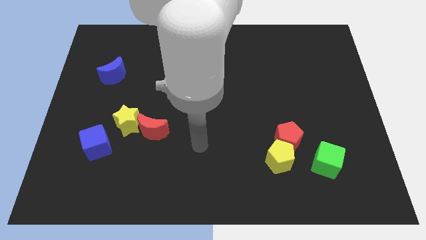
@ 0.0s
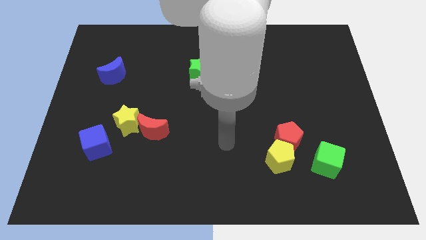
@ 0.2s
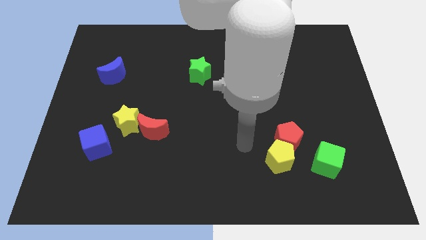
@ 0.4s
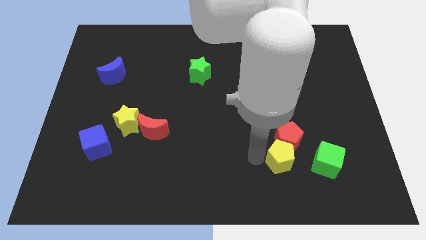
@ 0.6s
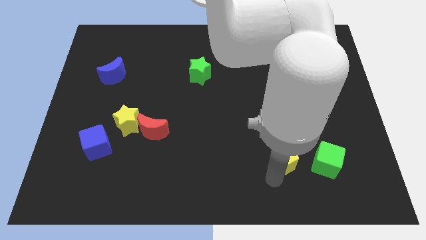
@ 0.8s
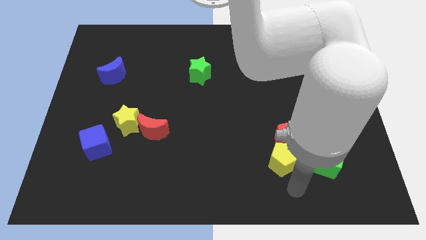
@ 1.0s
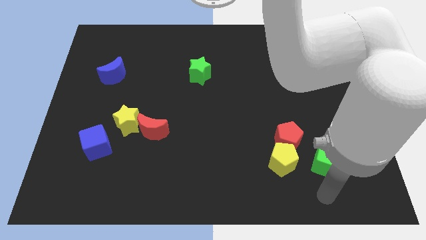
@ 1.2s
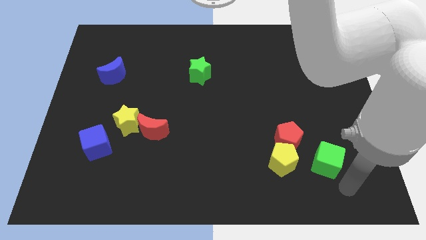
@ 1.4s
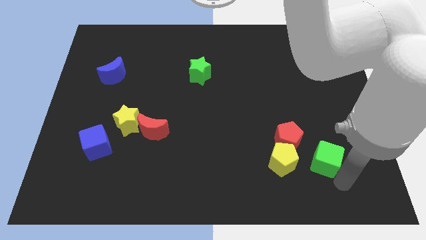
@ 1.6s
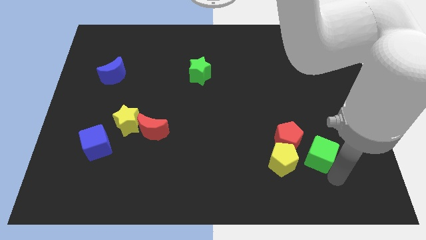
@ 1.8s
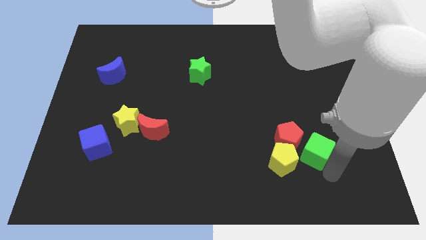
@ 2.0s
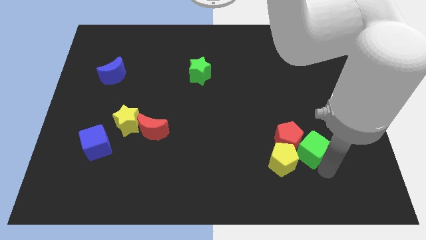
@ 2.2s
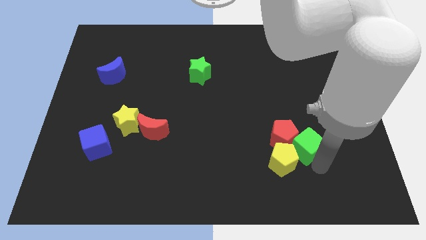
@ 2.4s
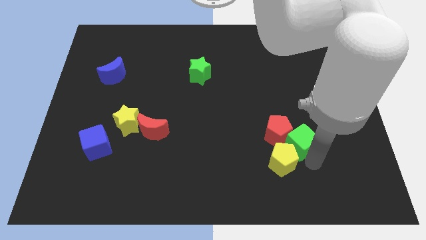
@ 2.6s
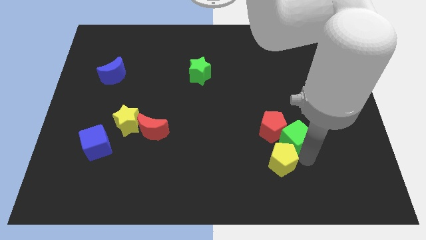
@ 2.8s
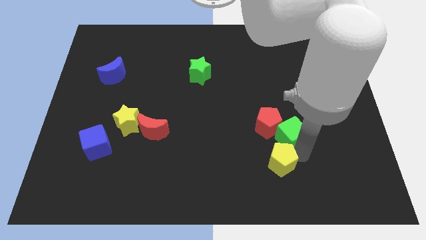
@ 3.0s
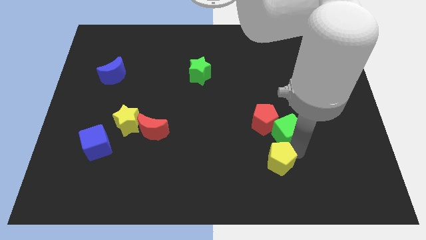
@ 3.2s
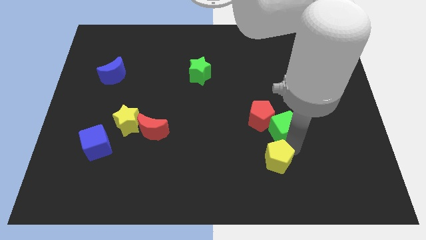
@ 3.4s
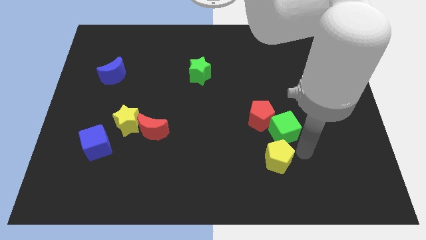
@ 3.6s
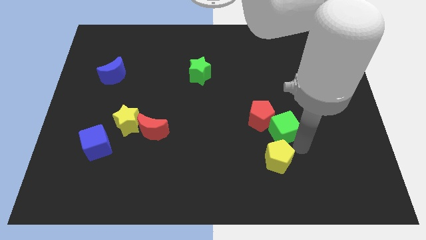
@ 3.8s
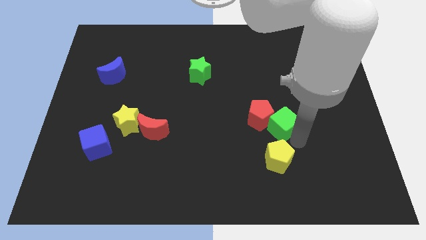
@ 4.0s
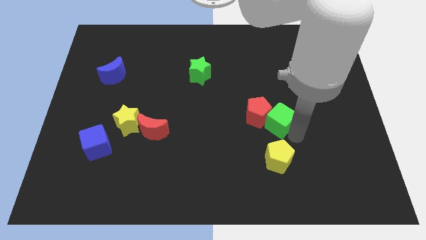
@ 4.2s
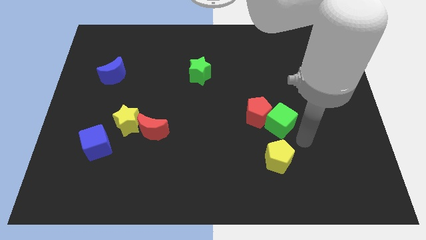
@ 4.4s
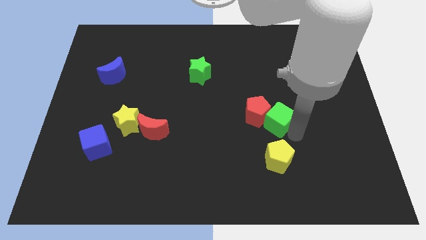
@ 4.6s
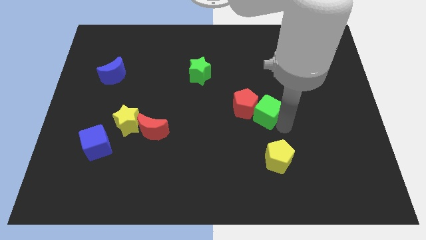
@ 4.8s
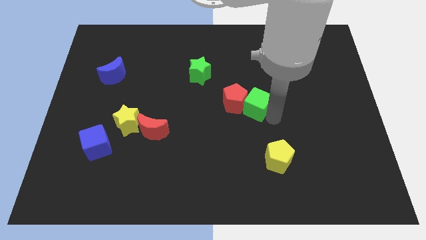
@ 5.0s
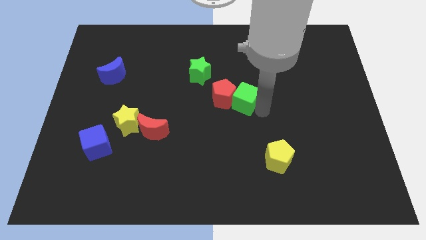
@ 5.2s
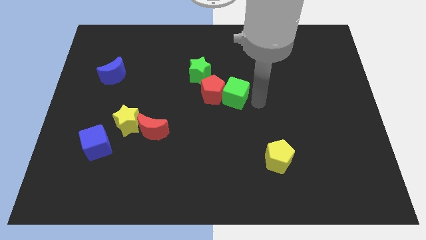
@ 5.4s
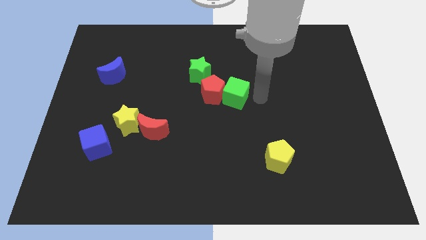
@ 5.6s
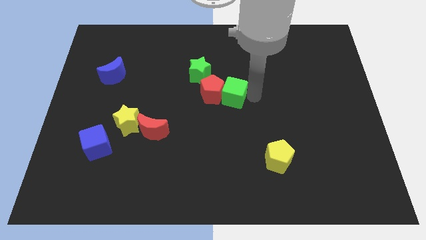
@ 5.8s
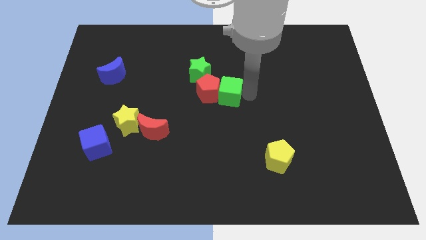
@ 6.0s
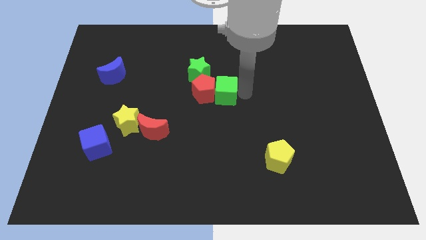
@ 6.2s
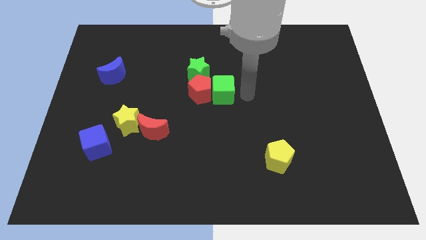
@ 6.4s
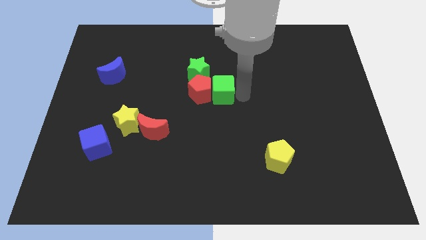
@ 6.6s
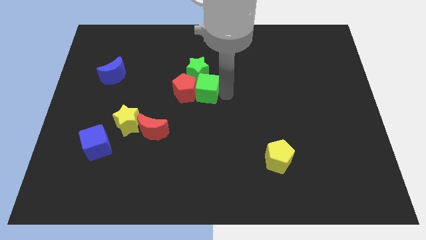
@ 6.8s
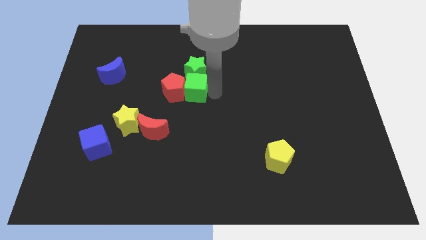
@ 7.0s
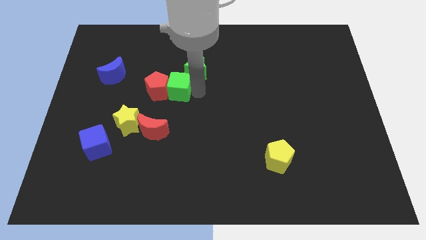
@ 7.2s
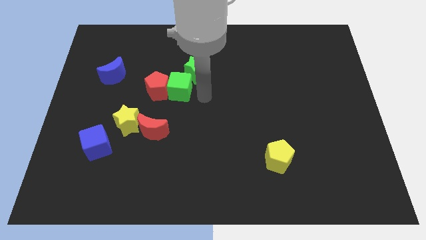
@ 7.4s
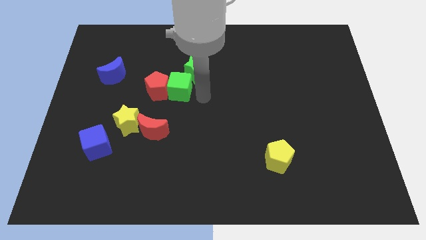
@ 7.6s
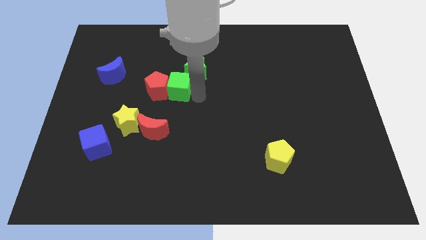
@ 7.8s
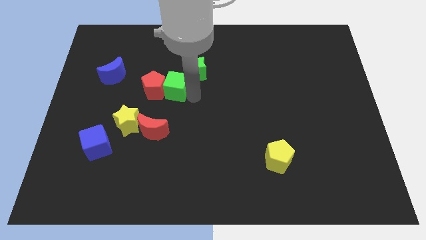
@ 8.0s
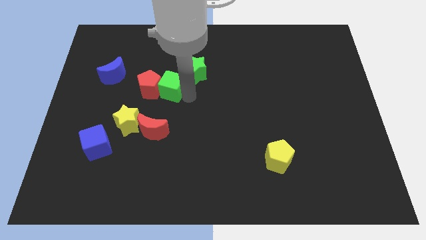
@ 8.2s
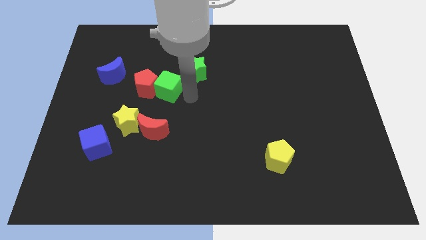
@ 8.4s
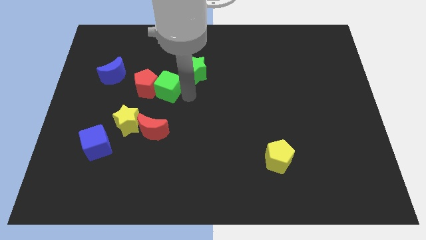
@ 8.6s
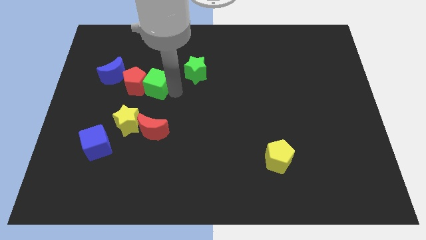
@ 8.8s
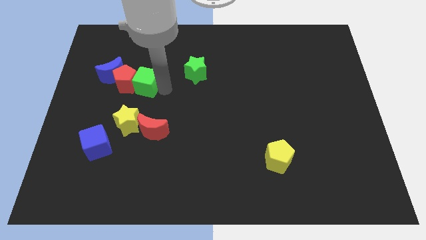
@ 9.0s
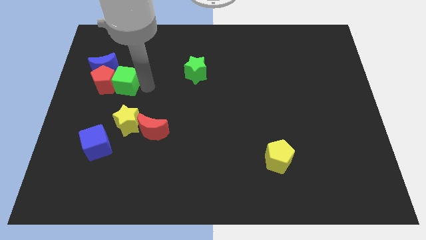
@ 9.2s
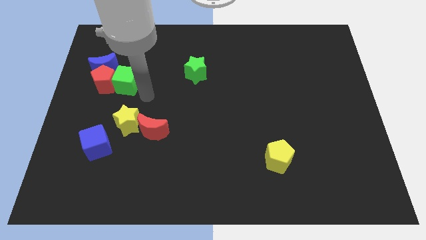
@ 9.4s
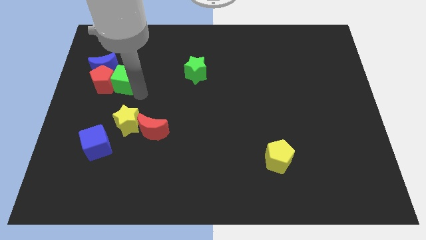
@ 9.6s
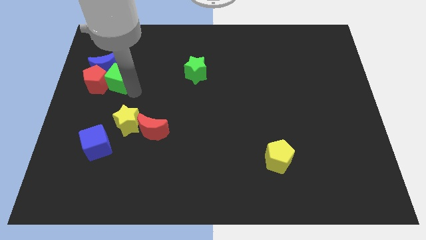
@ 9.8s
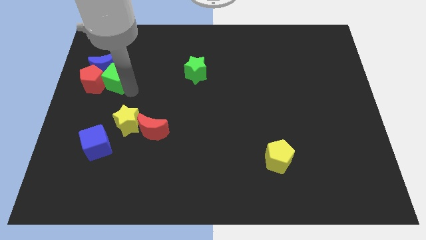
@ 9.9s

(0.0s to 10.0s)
put the green cube towards the blue moon

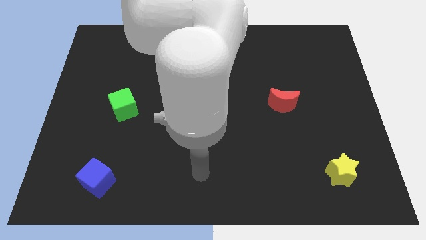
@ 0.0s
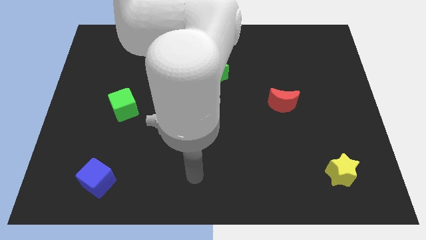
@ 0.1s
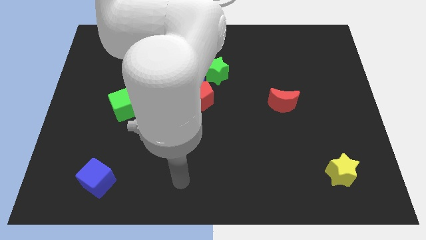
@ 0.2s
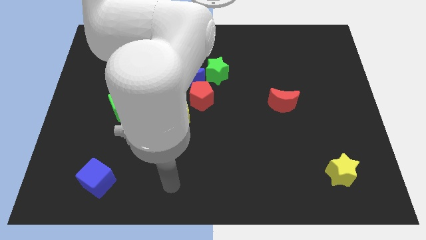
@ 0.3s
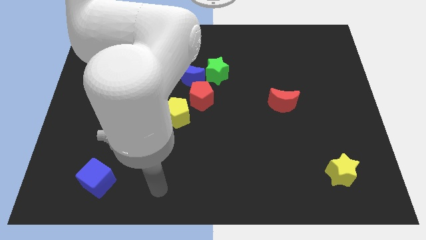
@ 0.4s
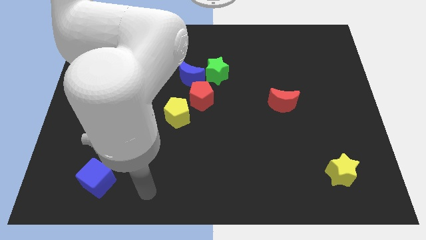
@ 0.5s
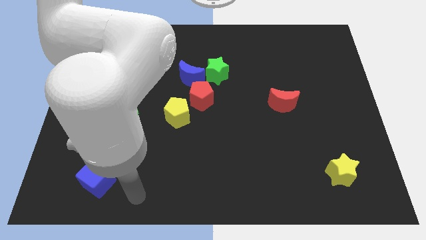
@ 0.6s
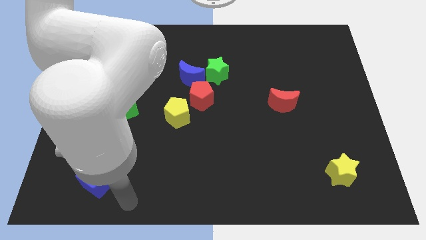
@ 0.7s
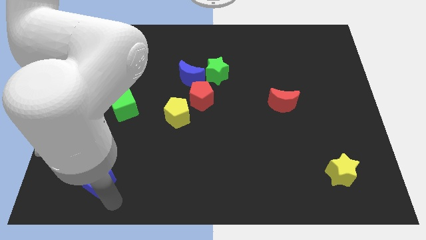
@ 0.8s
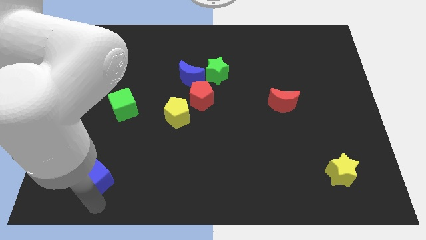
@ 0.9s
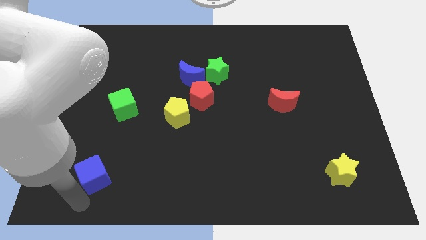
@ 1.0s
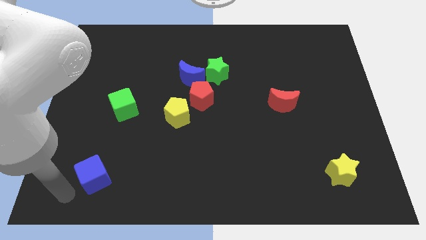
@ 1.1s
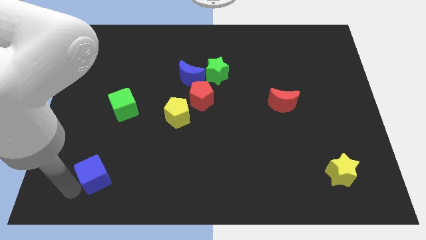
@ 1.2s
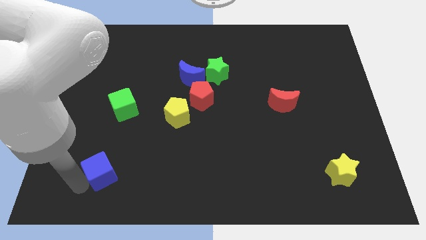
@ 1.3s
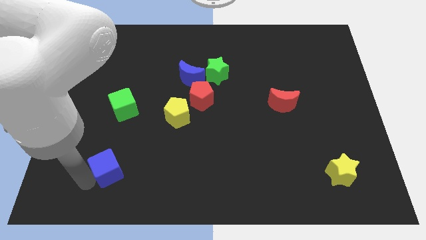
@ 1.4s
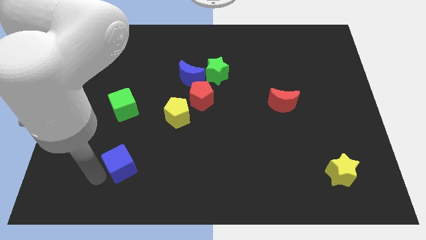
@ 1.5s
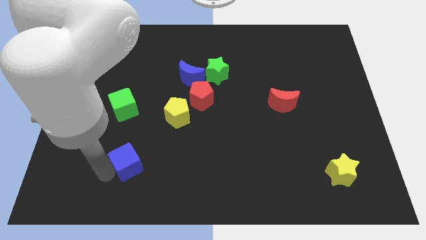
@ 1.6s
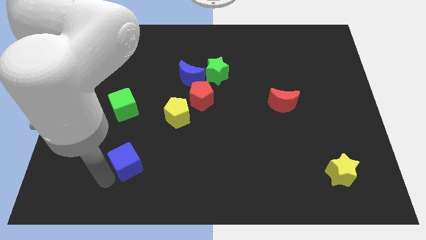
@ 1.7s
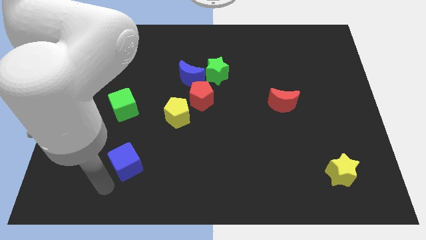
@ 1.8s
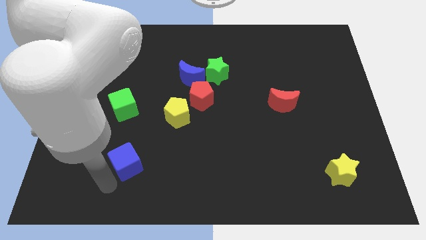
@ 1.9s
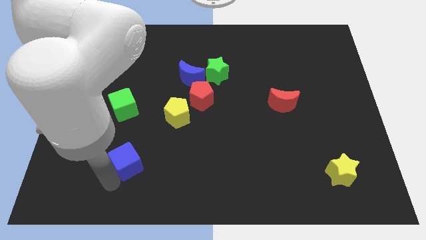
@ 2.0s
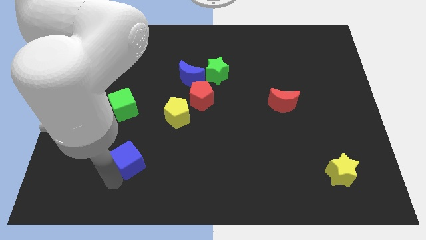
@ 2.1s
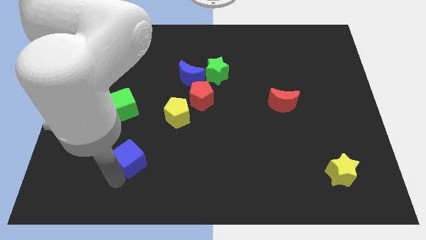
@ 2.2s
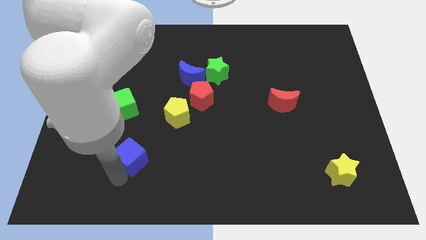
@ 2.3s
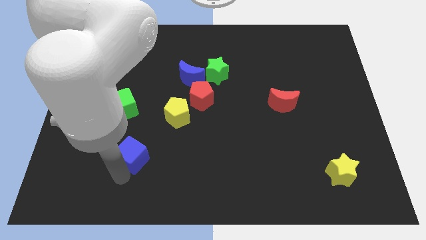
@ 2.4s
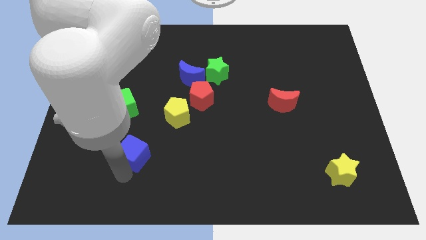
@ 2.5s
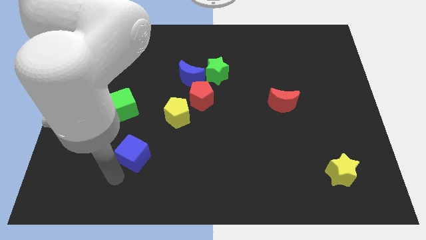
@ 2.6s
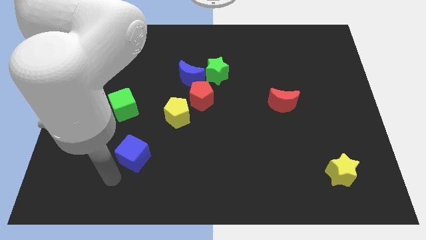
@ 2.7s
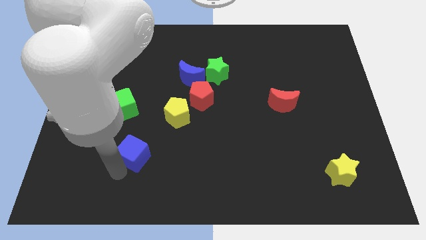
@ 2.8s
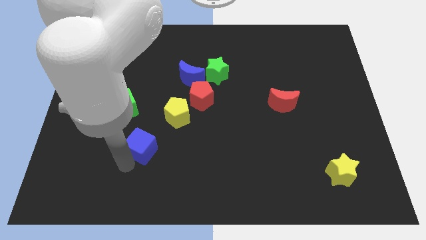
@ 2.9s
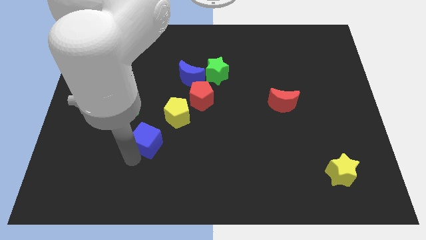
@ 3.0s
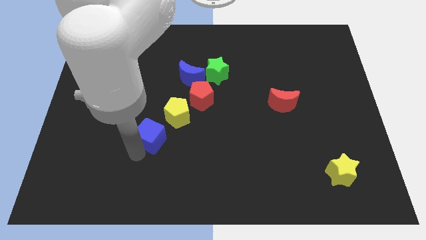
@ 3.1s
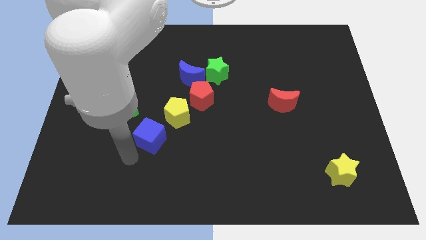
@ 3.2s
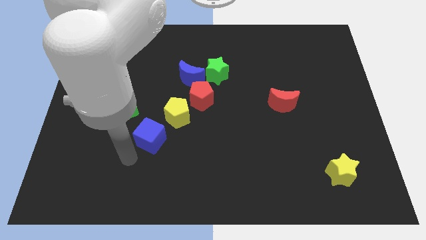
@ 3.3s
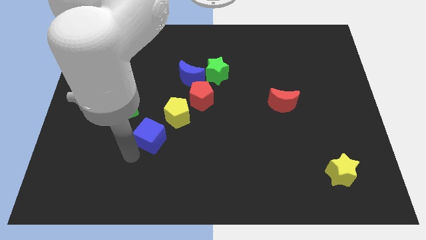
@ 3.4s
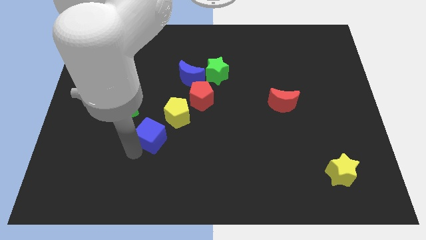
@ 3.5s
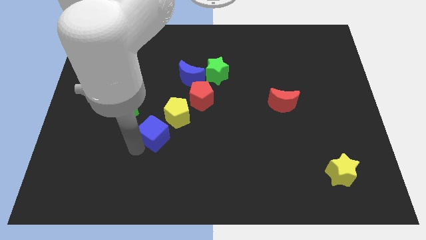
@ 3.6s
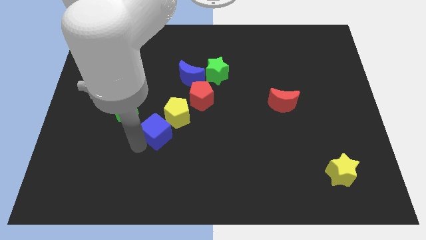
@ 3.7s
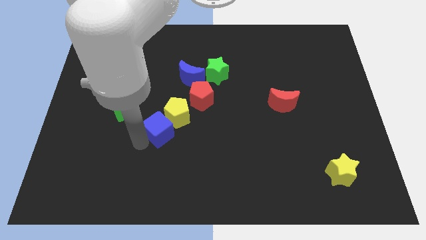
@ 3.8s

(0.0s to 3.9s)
put the blue cube close to the yellow pentagon
